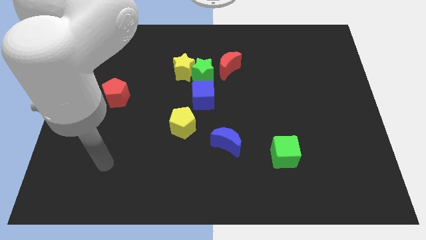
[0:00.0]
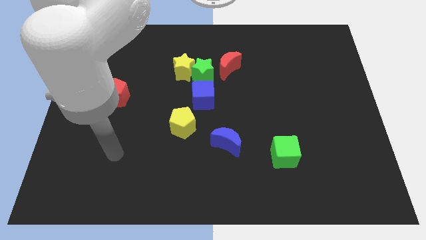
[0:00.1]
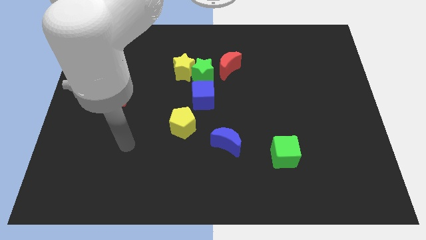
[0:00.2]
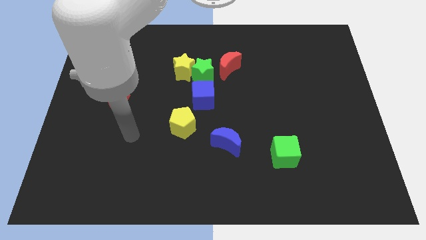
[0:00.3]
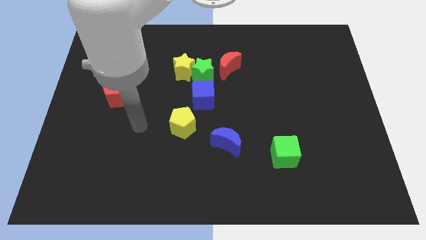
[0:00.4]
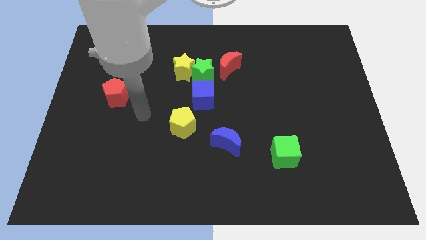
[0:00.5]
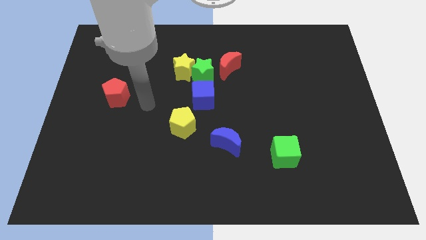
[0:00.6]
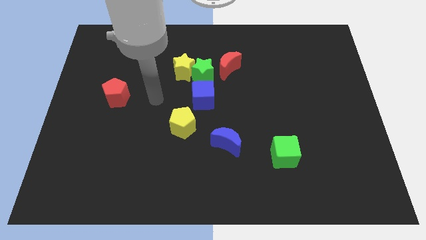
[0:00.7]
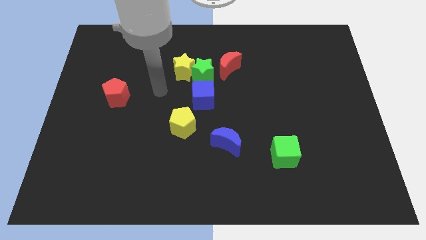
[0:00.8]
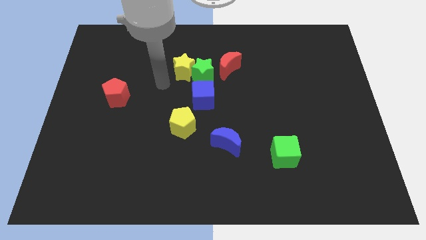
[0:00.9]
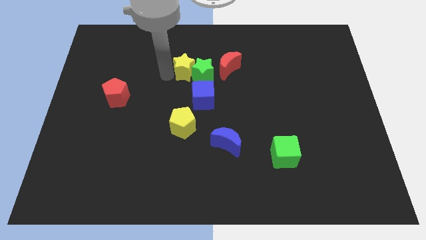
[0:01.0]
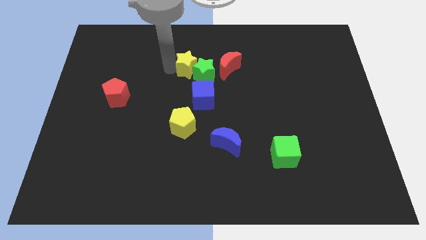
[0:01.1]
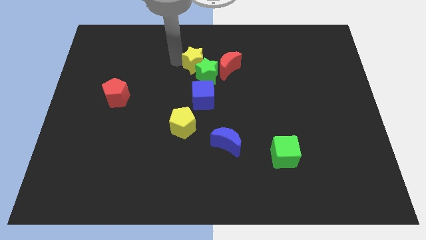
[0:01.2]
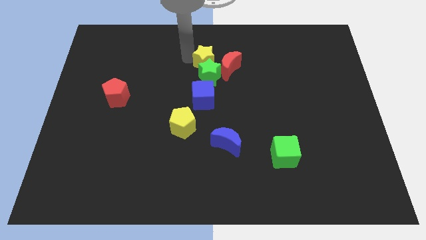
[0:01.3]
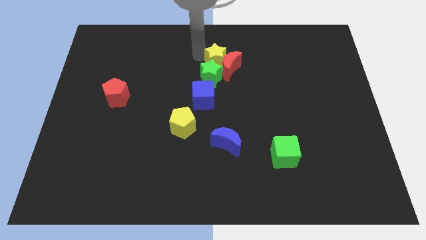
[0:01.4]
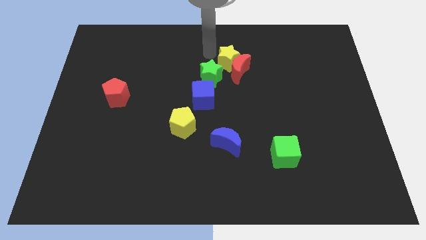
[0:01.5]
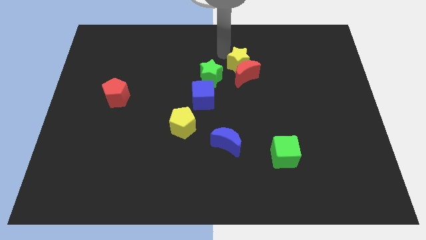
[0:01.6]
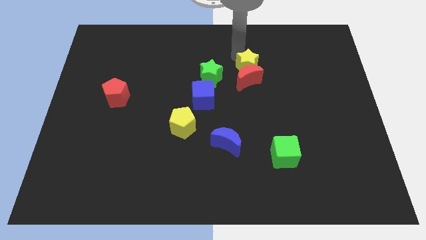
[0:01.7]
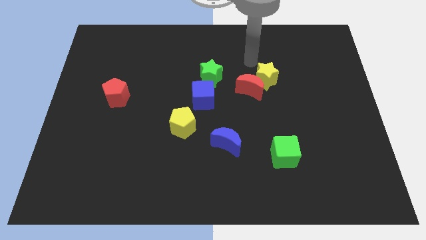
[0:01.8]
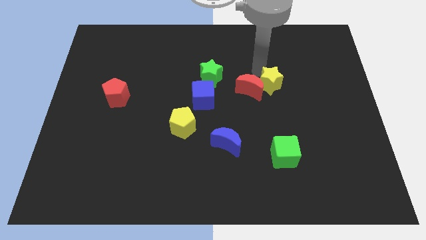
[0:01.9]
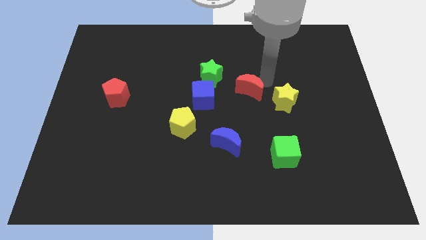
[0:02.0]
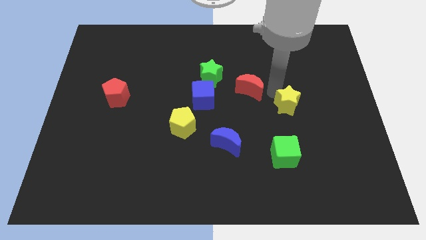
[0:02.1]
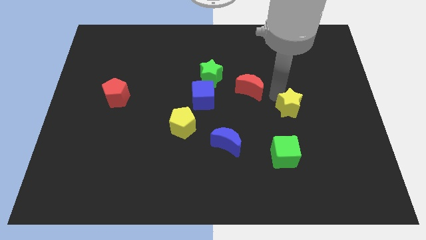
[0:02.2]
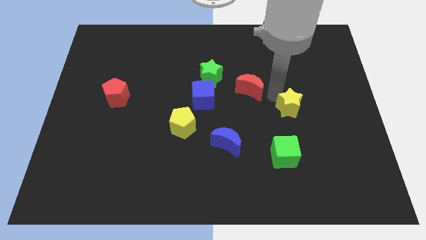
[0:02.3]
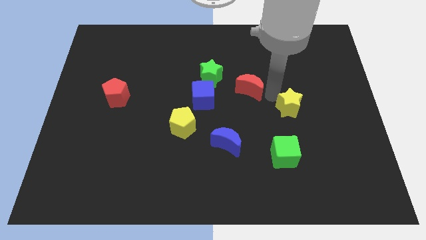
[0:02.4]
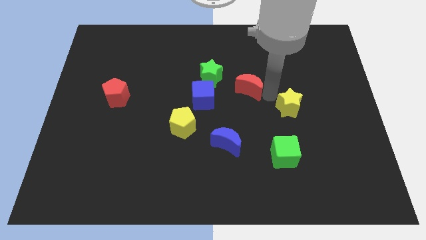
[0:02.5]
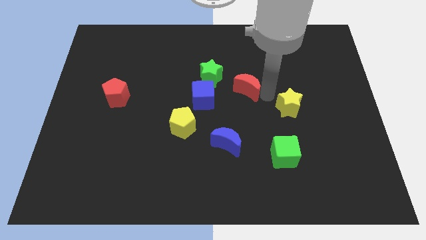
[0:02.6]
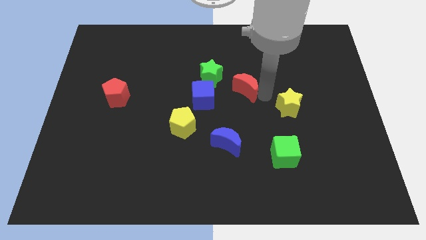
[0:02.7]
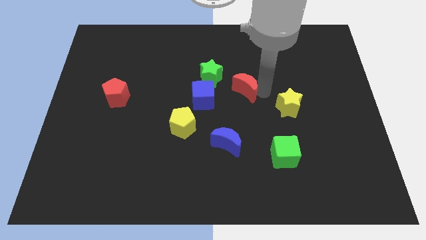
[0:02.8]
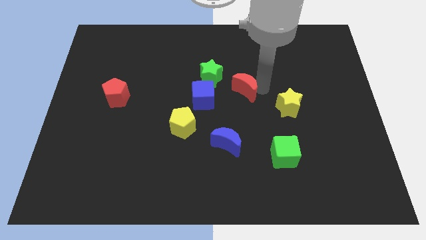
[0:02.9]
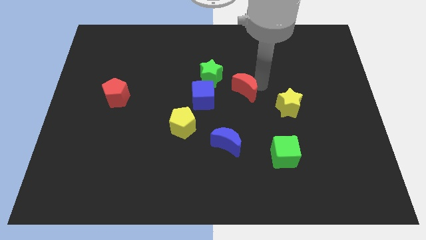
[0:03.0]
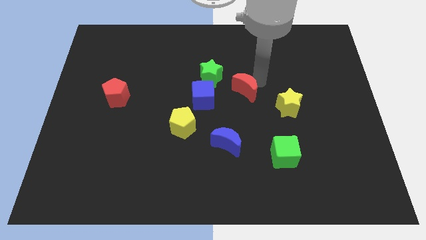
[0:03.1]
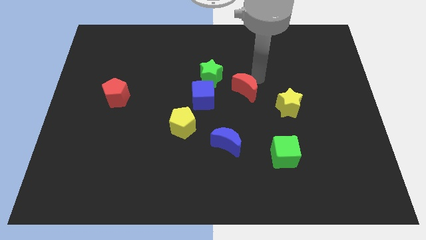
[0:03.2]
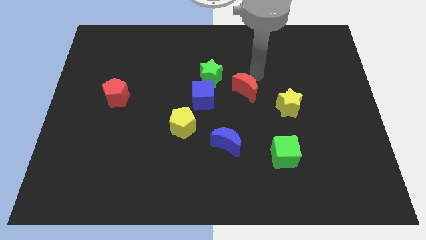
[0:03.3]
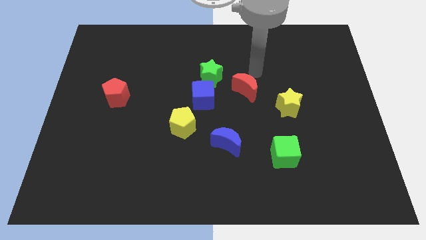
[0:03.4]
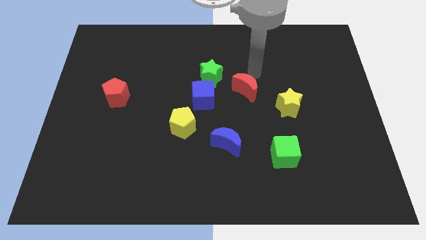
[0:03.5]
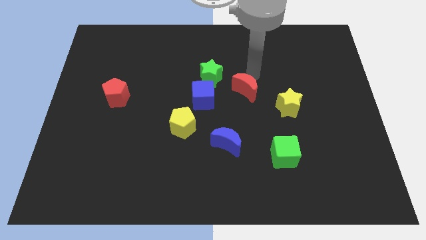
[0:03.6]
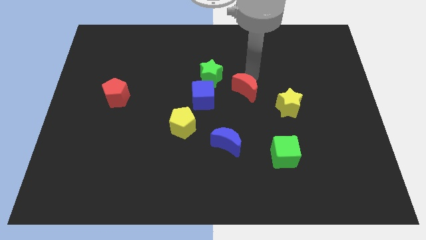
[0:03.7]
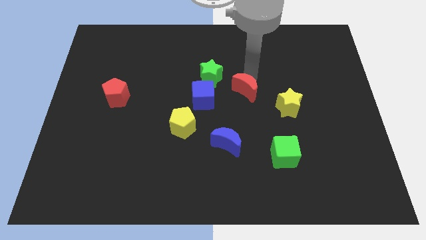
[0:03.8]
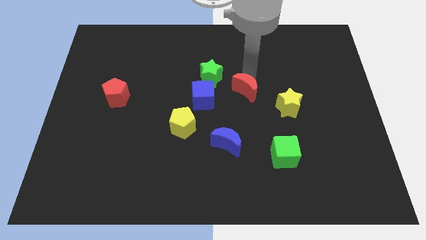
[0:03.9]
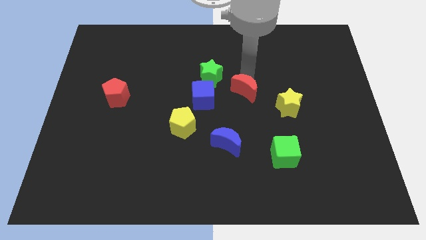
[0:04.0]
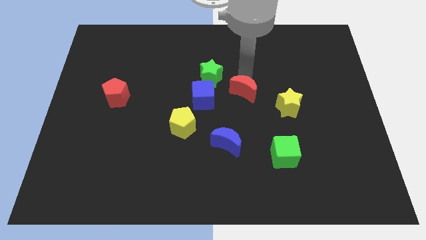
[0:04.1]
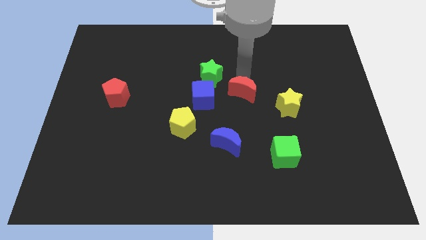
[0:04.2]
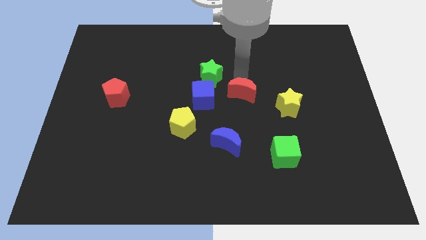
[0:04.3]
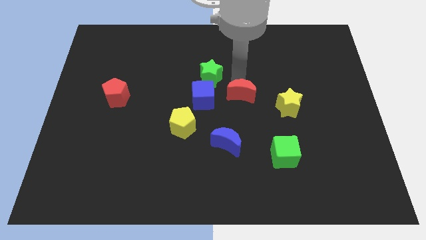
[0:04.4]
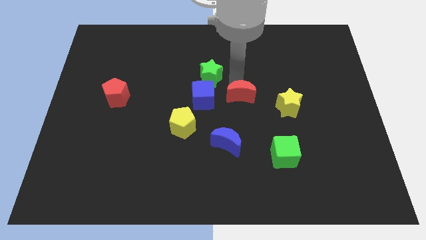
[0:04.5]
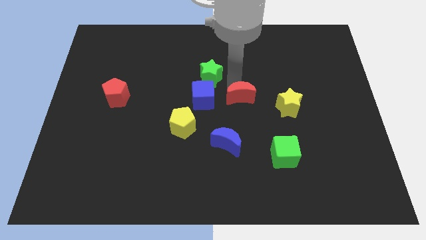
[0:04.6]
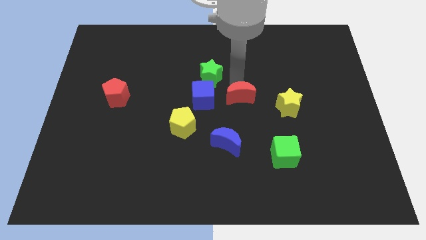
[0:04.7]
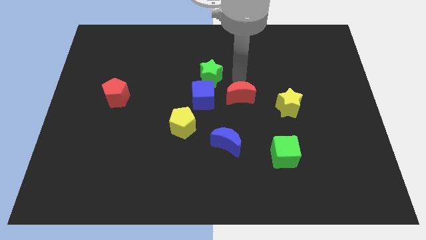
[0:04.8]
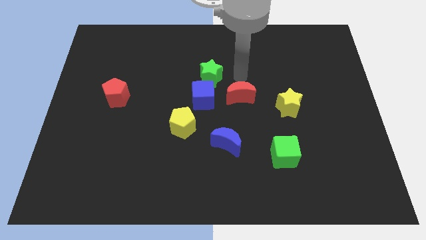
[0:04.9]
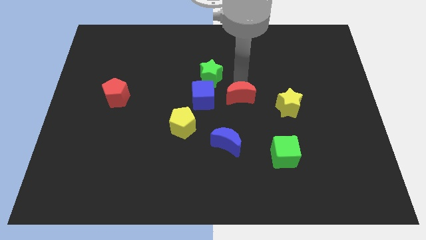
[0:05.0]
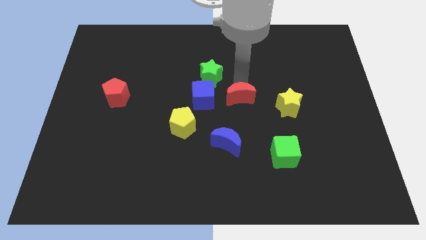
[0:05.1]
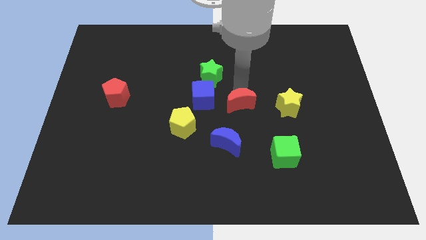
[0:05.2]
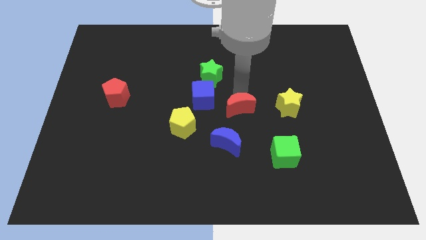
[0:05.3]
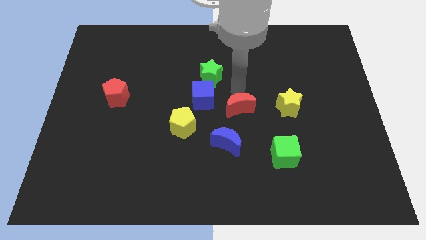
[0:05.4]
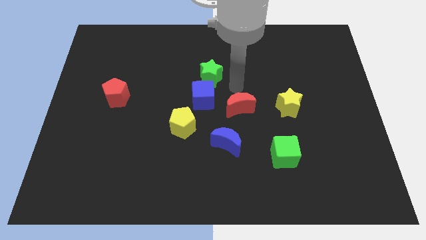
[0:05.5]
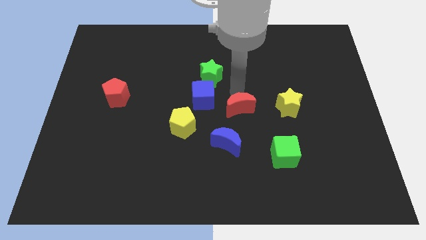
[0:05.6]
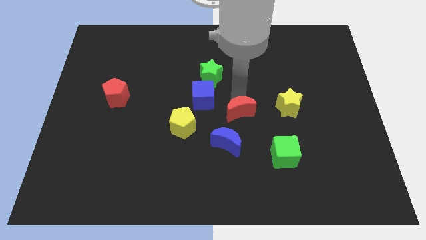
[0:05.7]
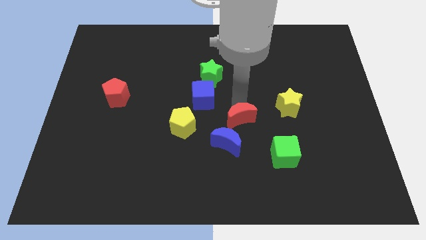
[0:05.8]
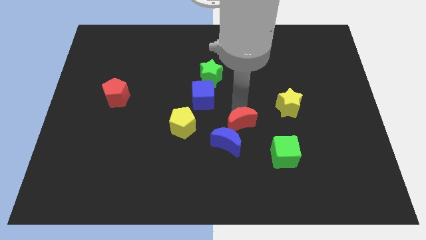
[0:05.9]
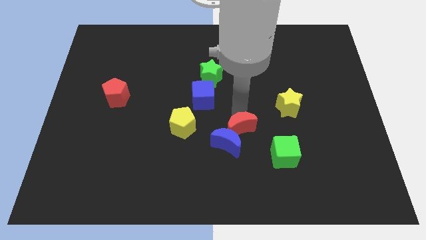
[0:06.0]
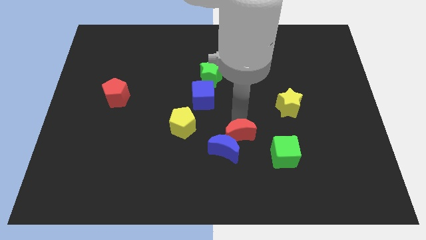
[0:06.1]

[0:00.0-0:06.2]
push the red moon downwards

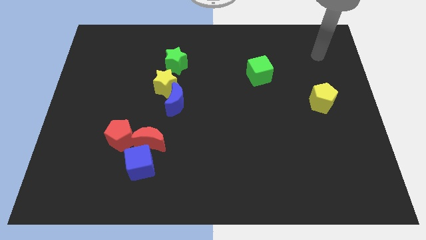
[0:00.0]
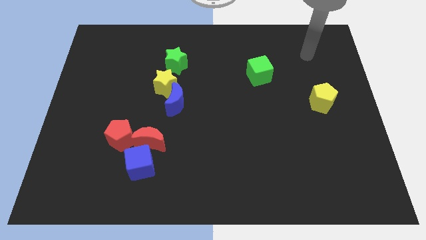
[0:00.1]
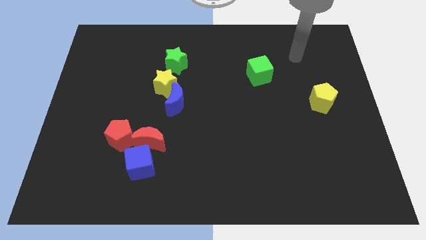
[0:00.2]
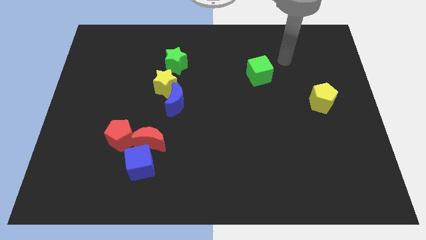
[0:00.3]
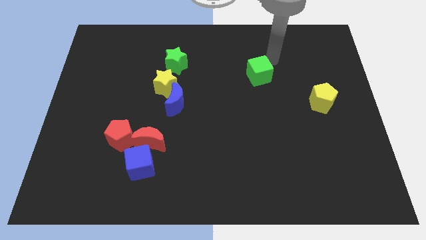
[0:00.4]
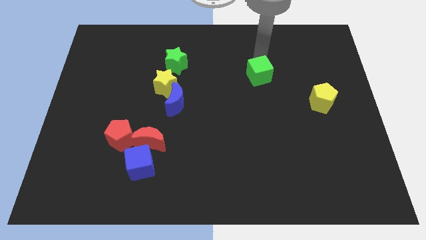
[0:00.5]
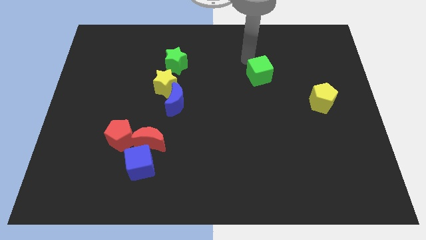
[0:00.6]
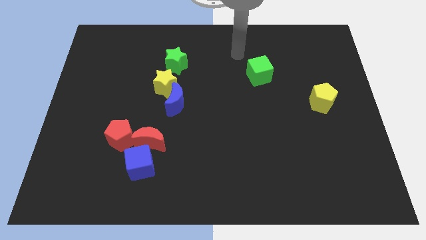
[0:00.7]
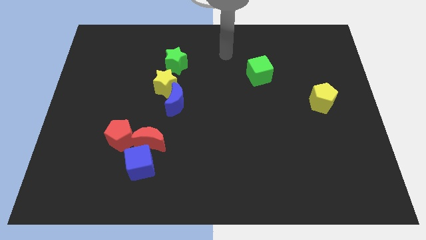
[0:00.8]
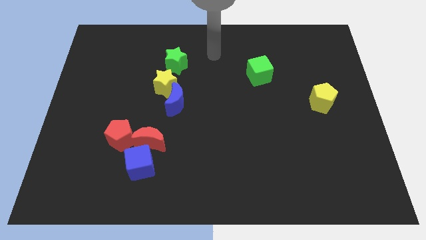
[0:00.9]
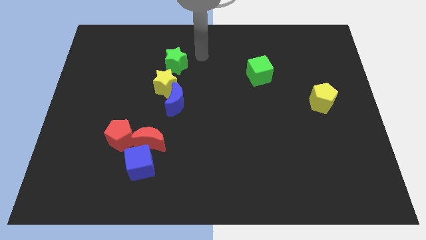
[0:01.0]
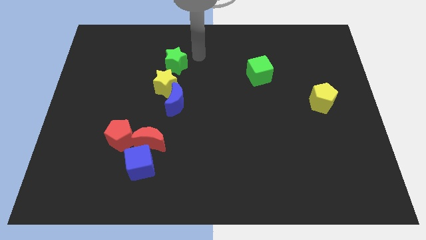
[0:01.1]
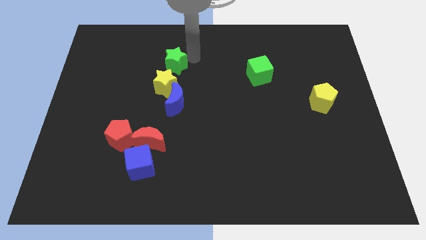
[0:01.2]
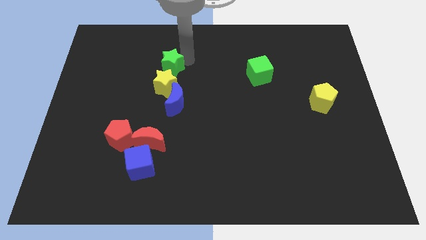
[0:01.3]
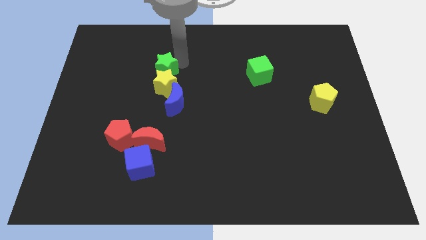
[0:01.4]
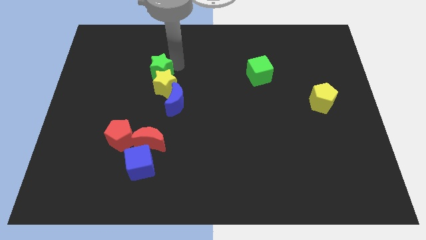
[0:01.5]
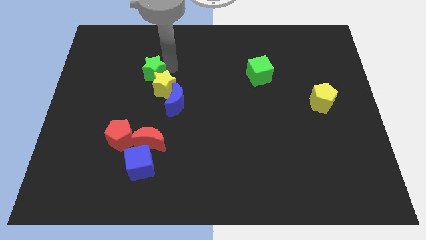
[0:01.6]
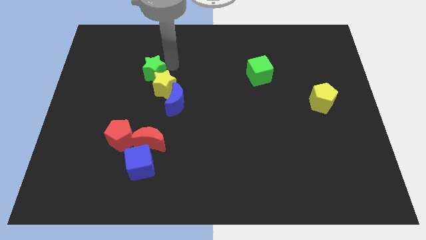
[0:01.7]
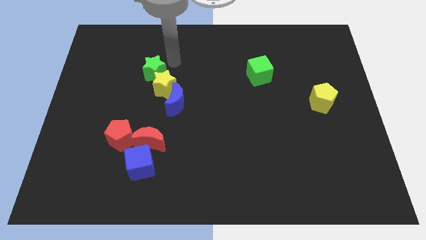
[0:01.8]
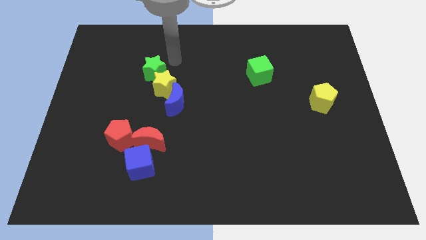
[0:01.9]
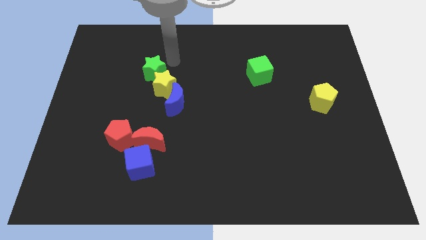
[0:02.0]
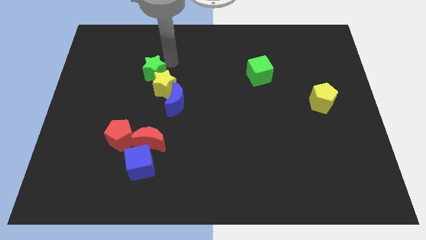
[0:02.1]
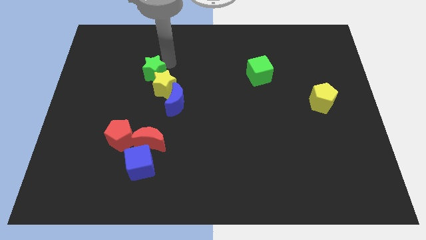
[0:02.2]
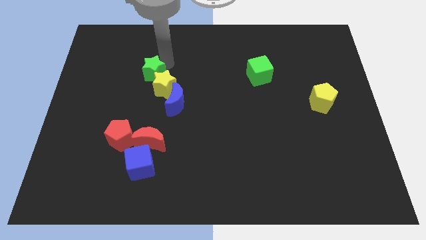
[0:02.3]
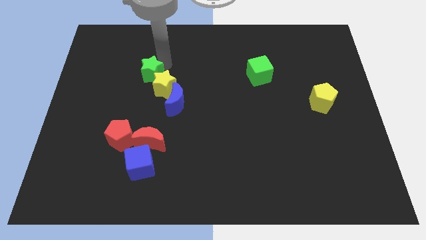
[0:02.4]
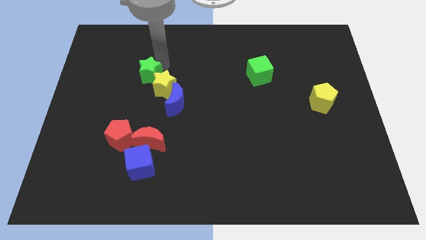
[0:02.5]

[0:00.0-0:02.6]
slightly slide the green star diagonally downwards and left
